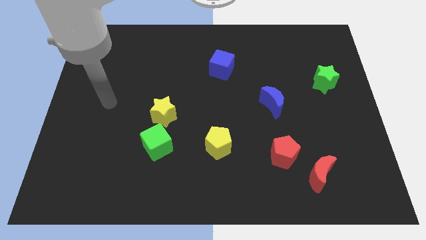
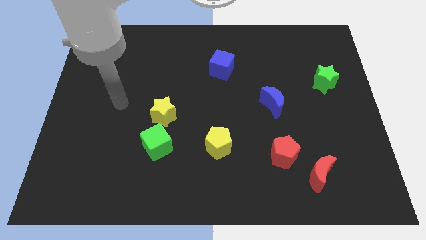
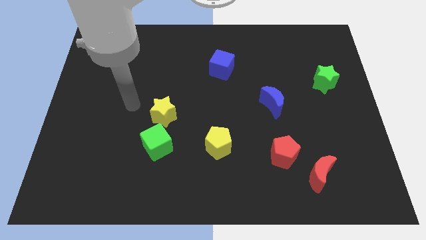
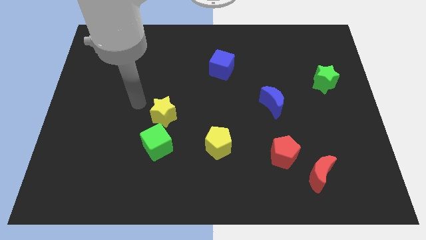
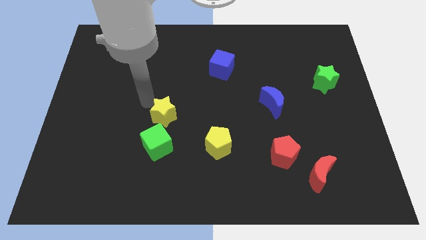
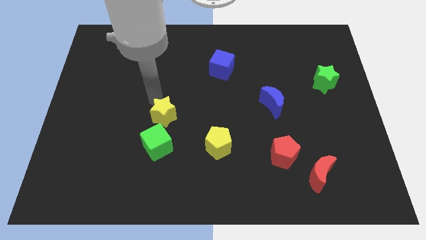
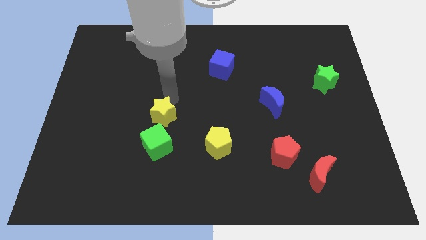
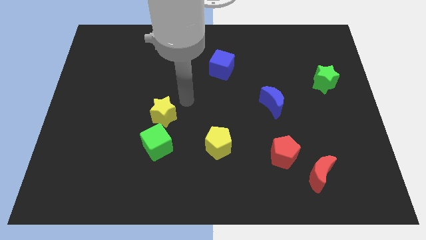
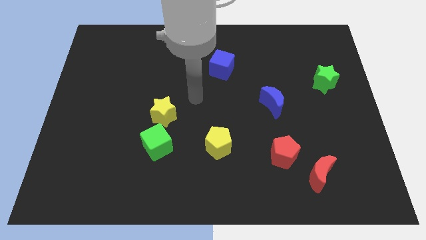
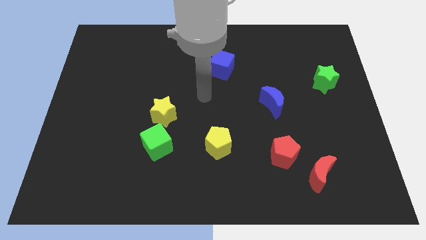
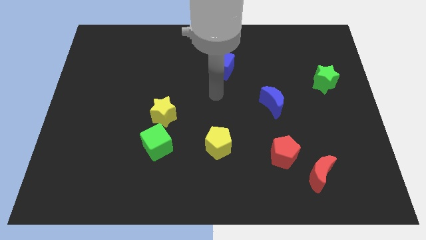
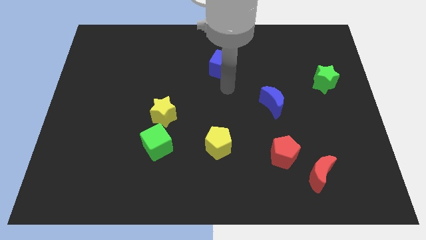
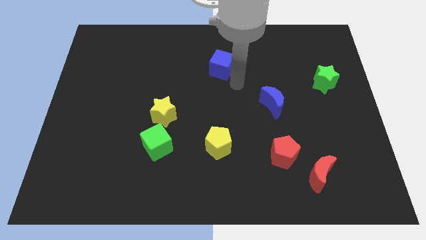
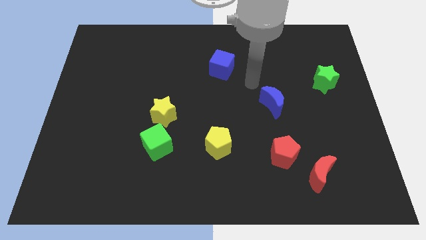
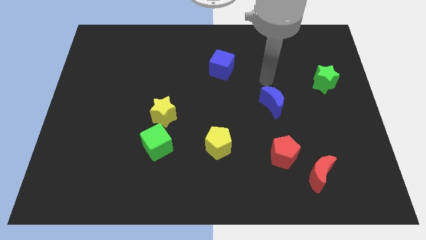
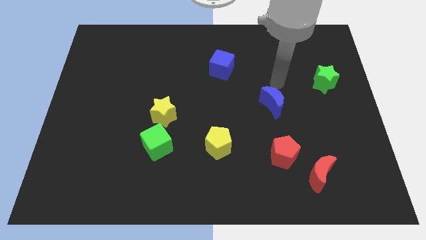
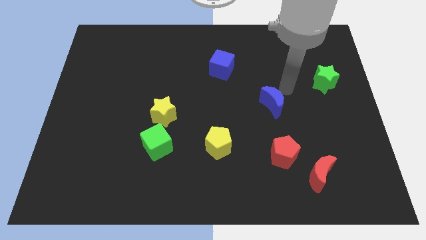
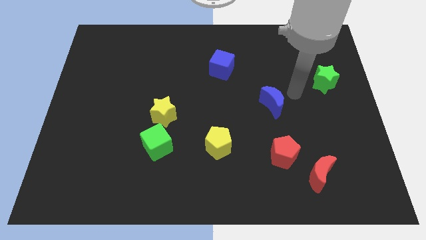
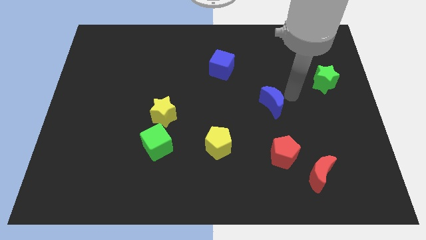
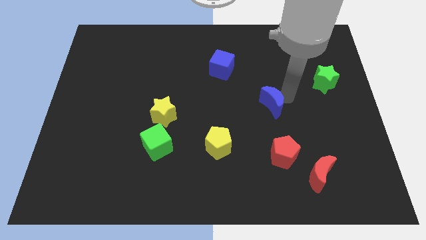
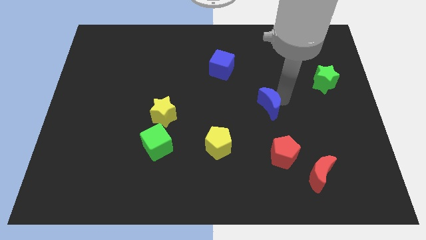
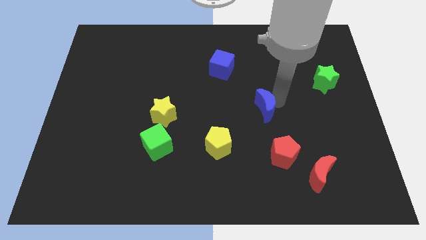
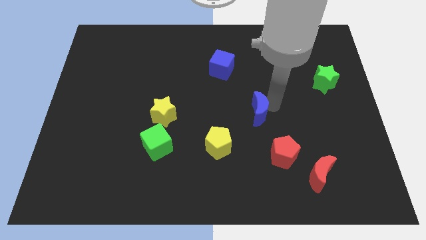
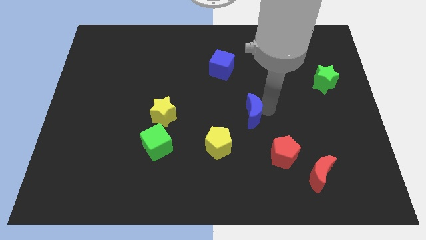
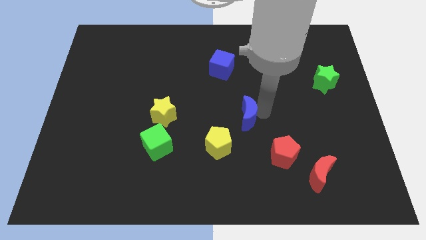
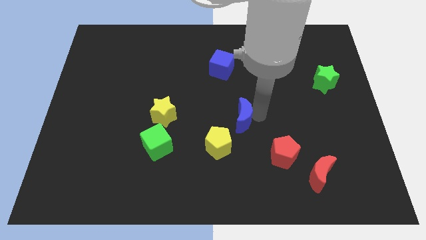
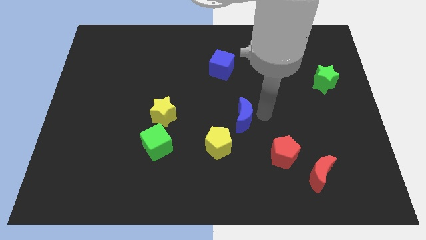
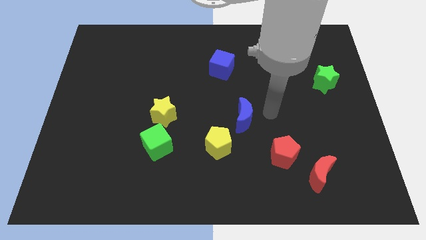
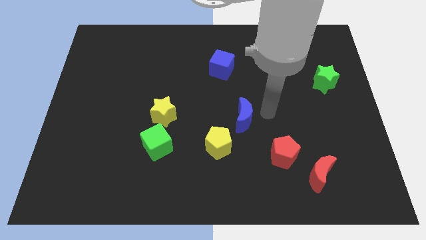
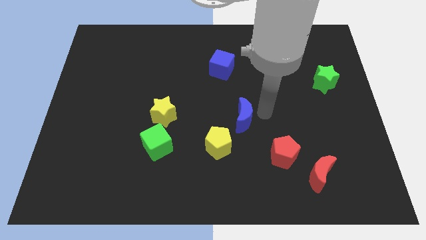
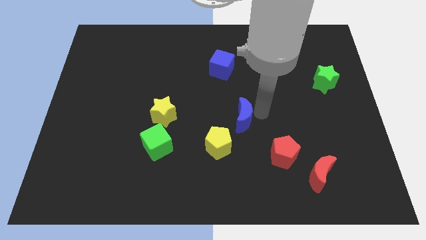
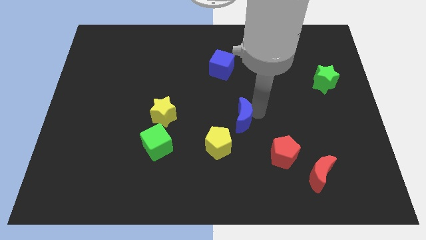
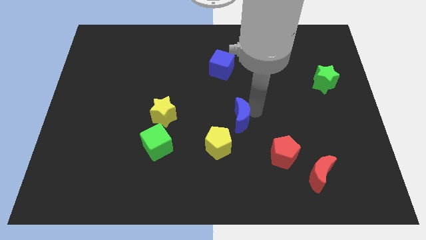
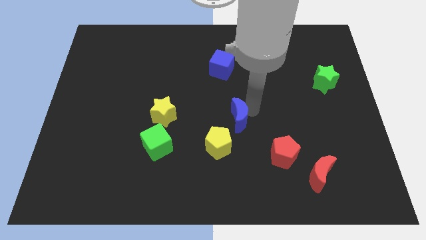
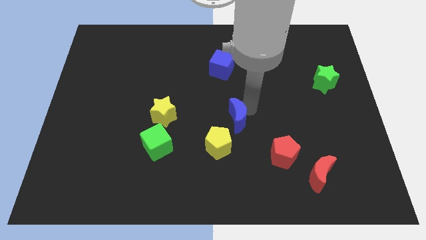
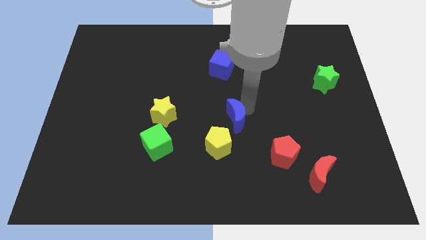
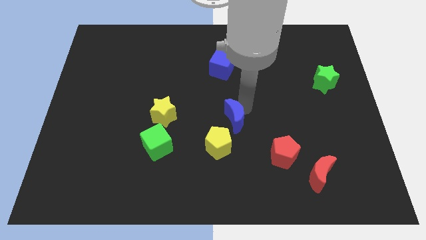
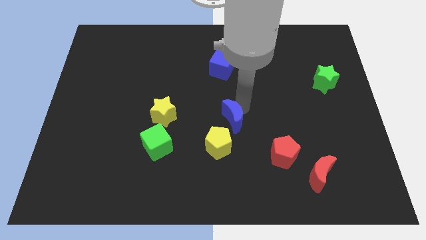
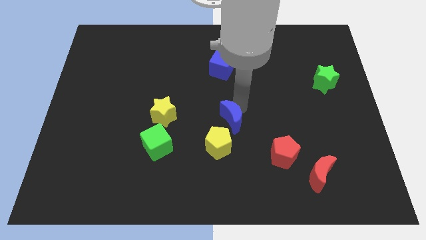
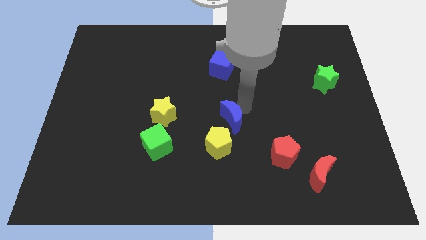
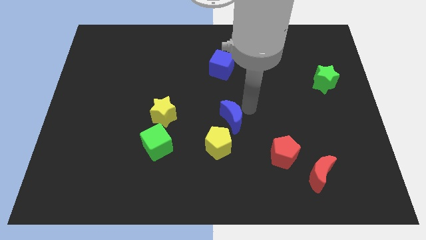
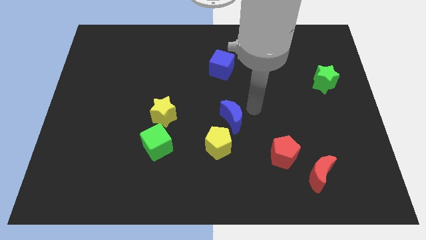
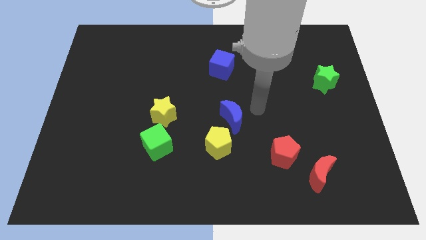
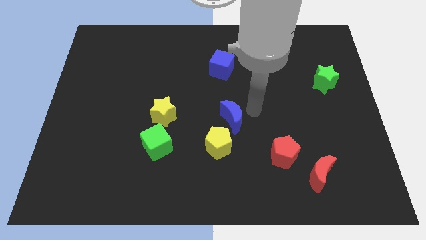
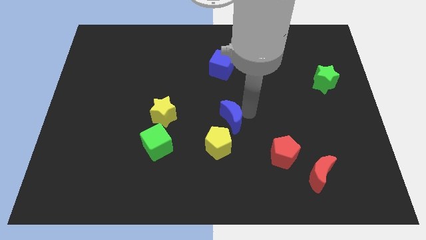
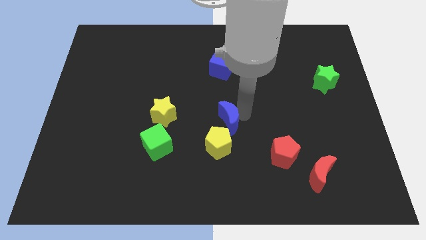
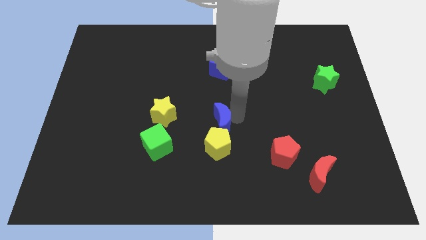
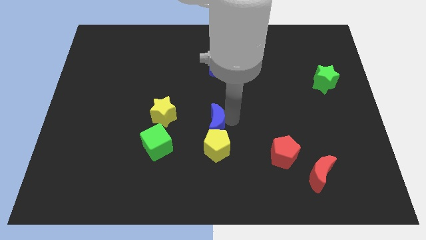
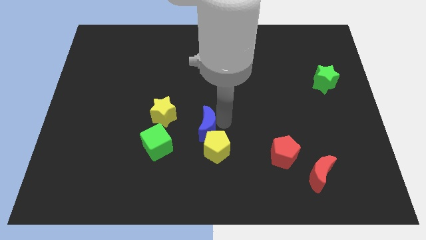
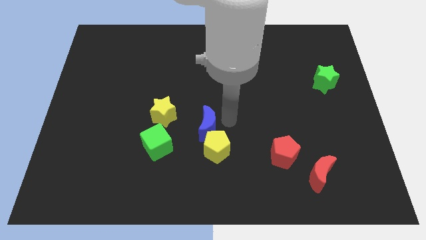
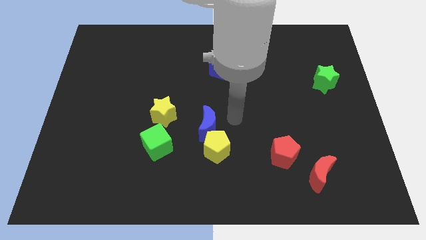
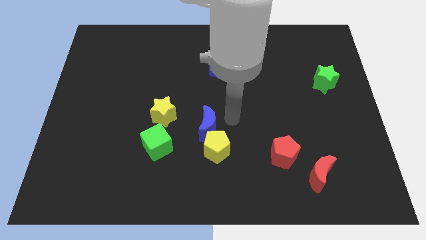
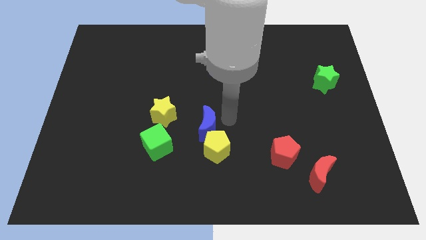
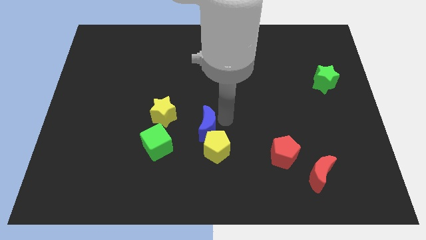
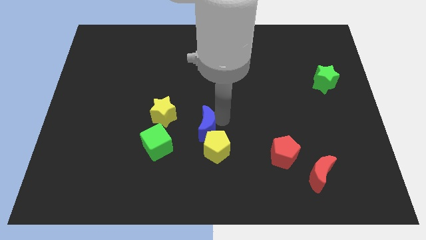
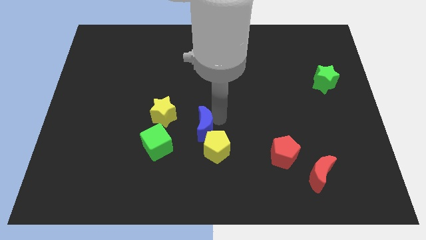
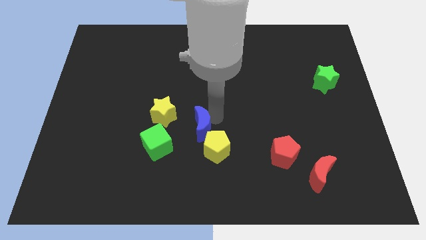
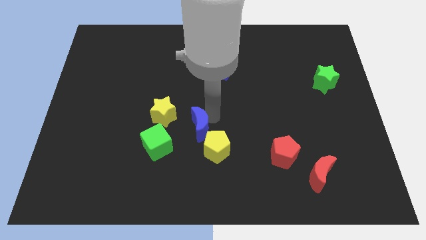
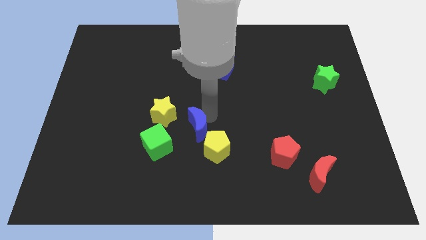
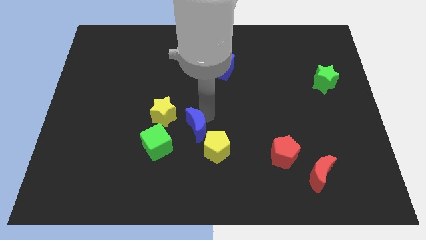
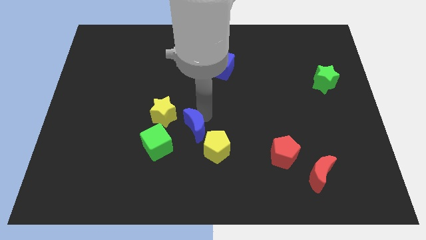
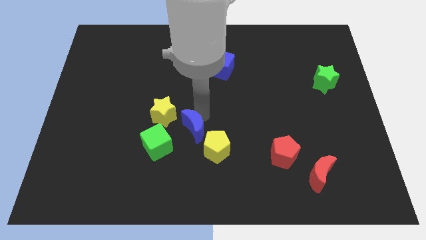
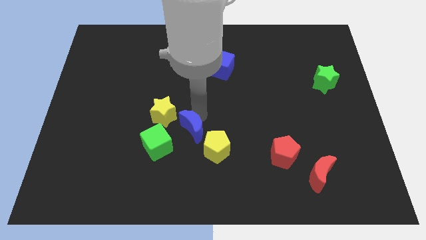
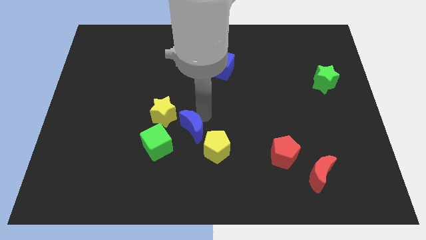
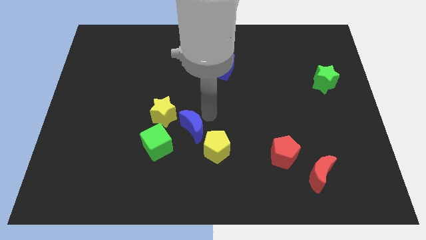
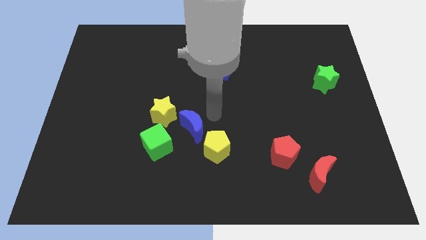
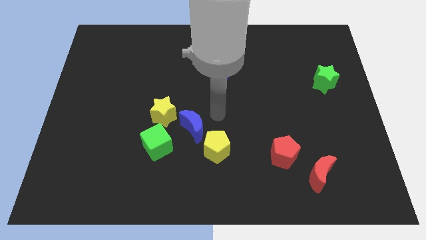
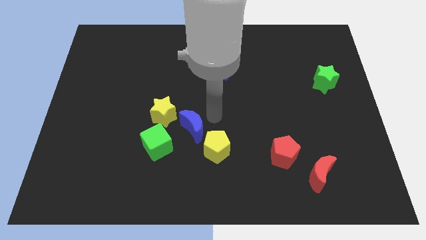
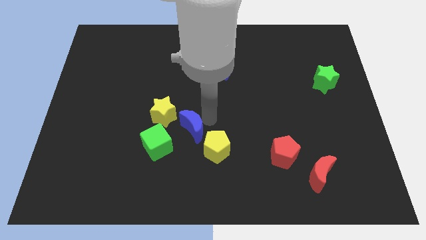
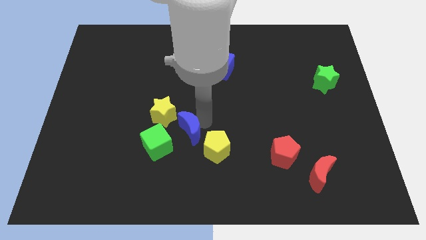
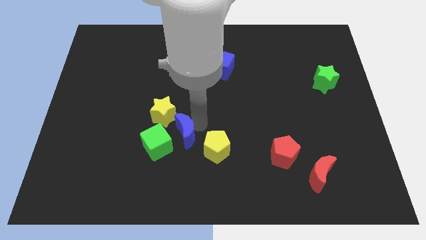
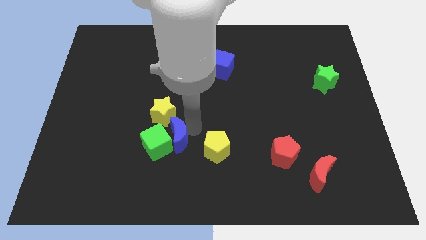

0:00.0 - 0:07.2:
push the blue moon towards the green cube
